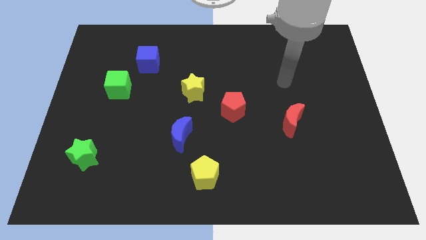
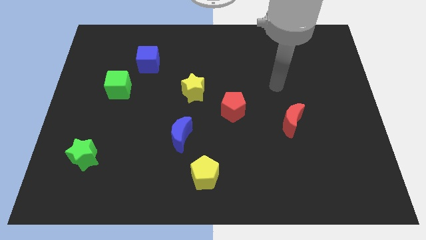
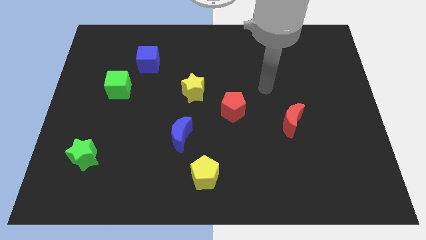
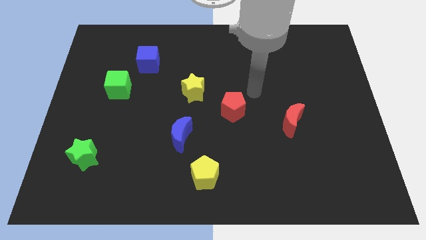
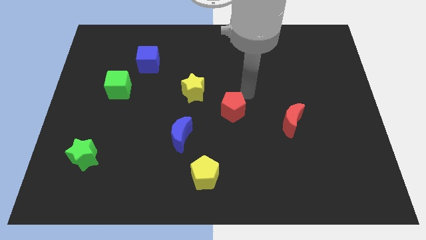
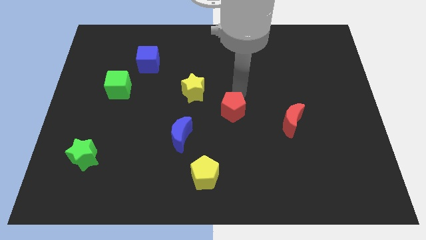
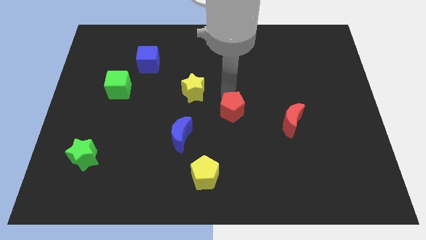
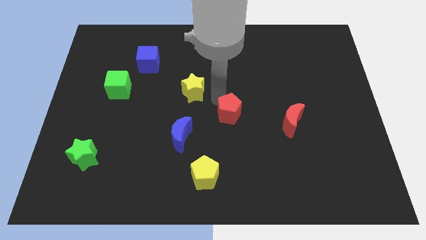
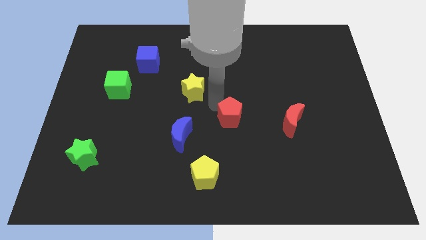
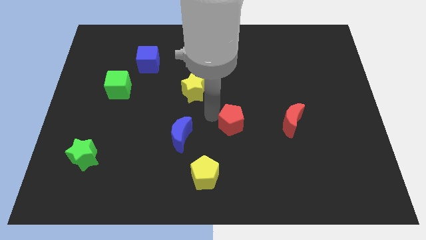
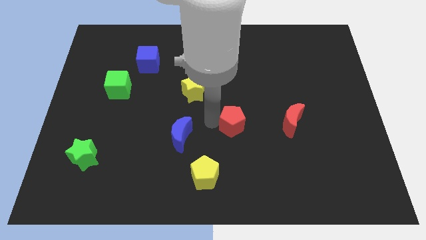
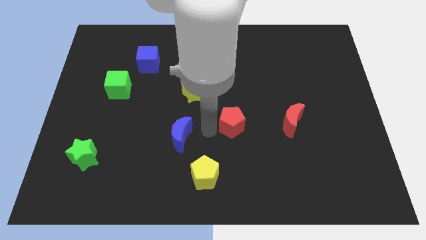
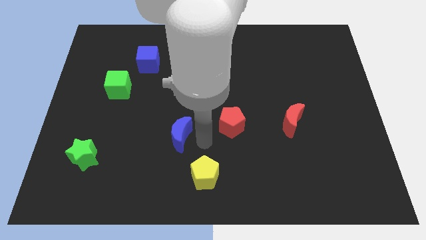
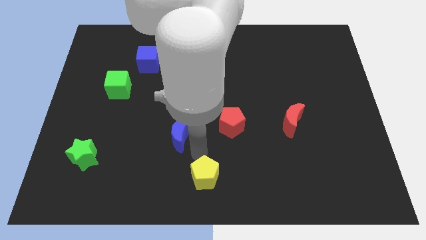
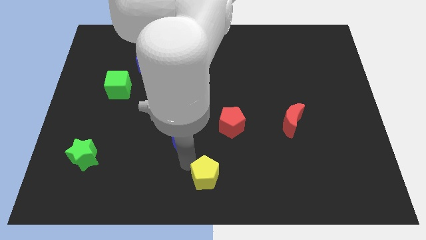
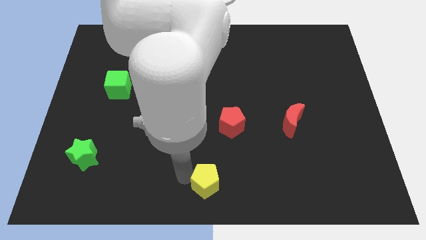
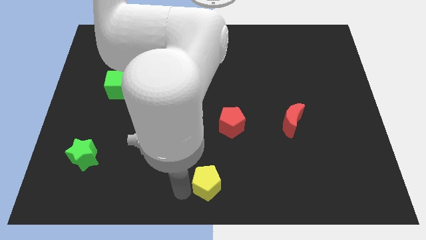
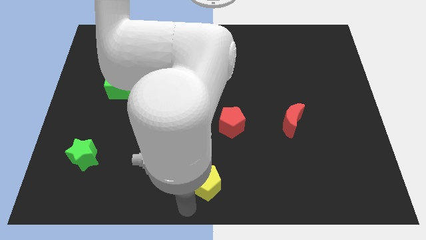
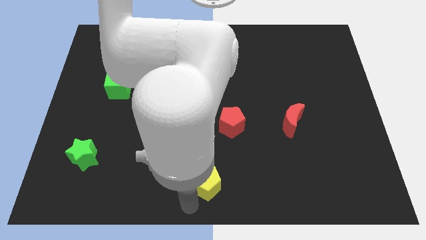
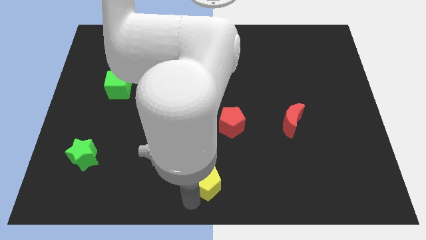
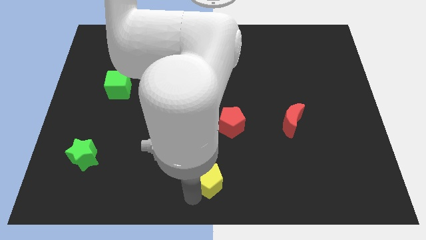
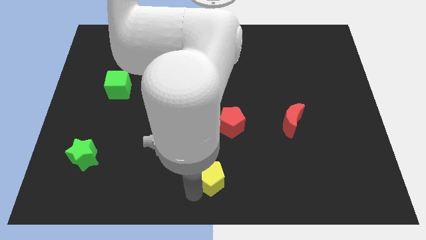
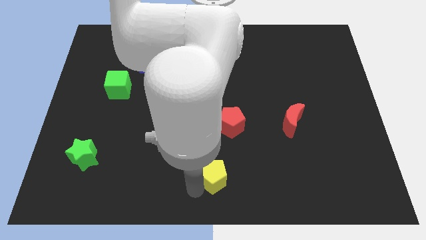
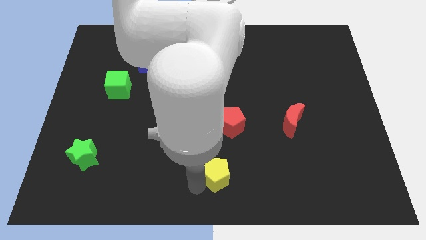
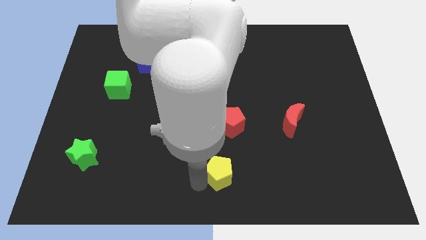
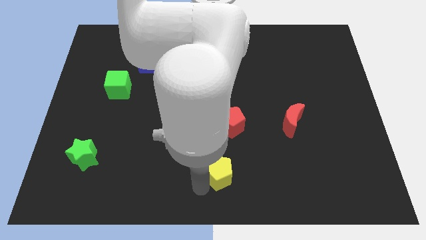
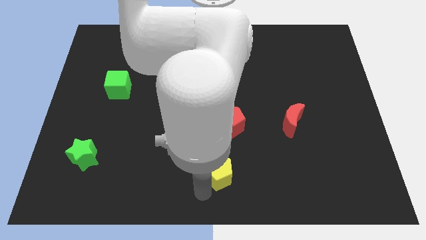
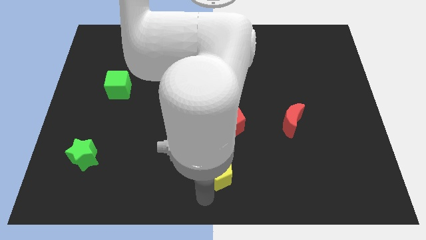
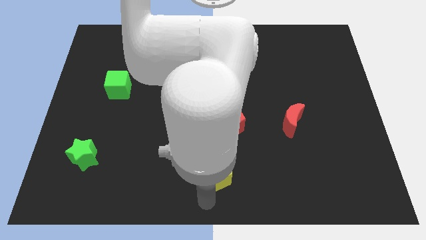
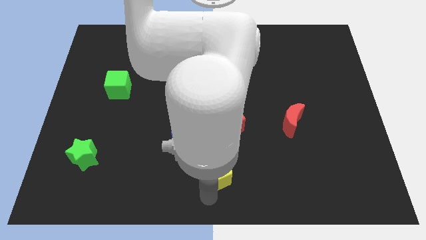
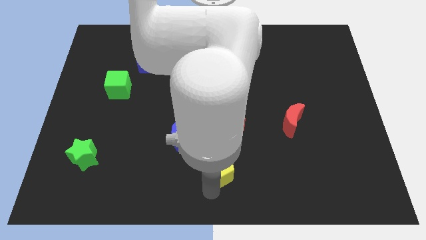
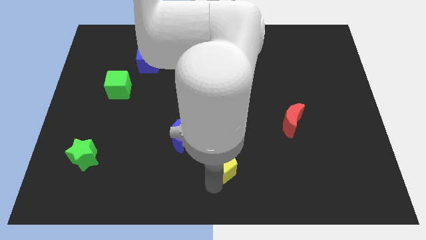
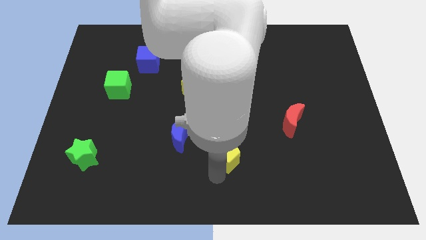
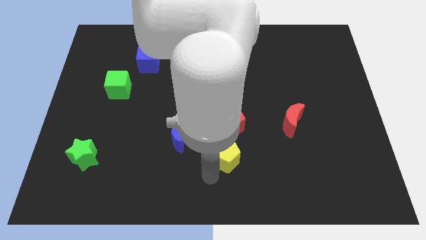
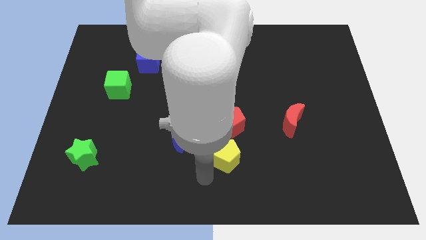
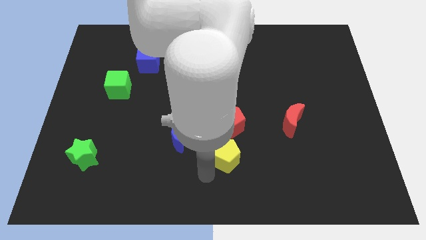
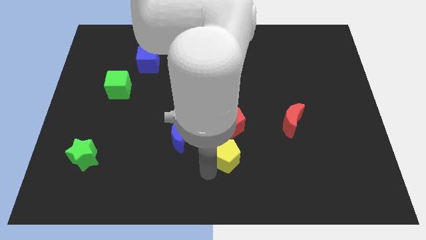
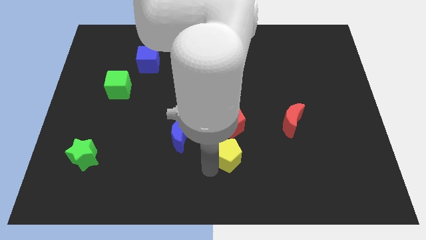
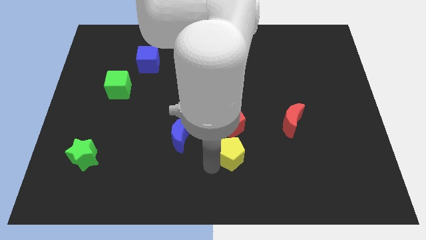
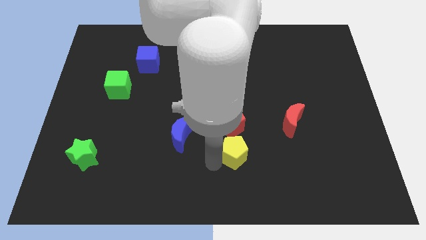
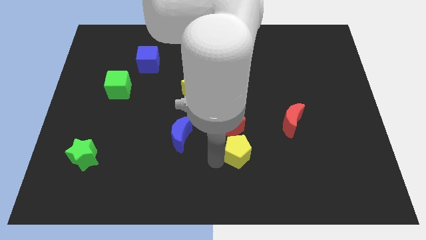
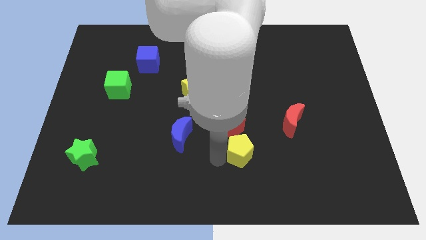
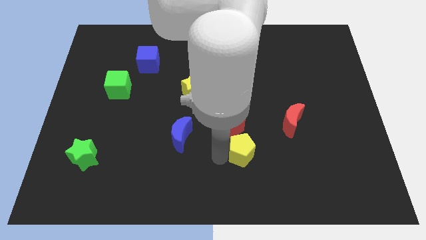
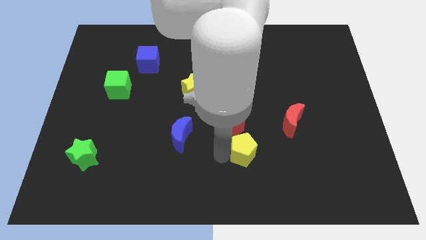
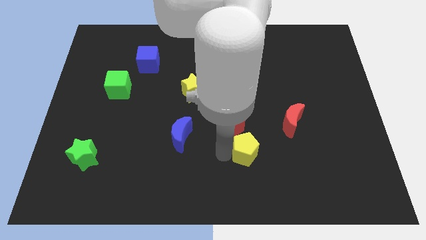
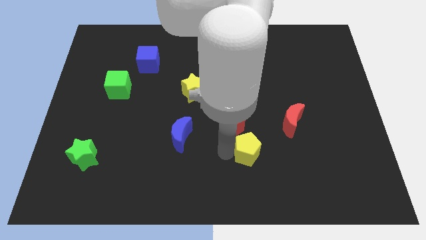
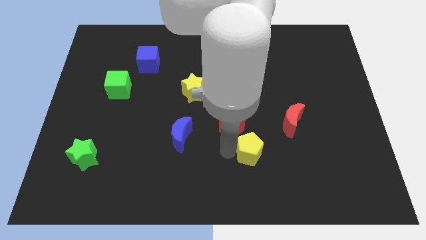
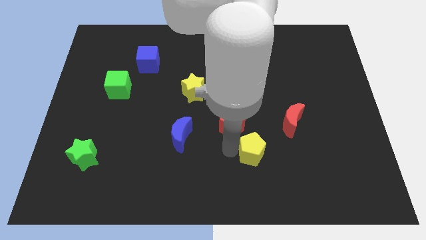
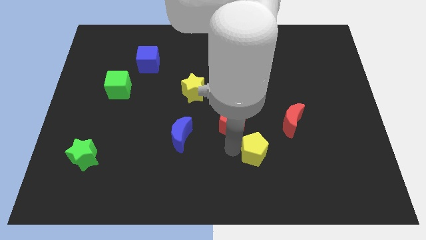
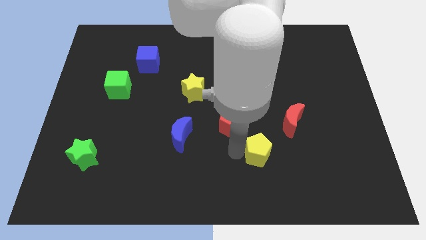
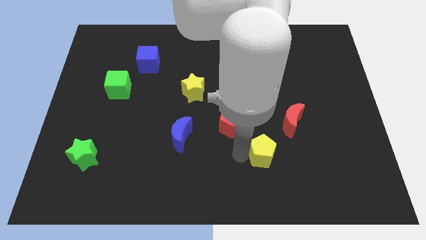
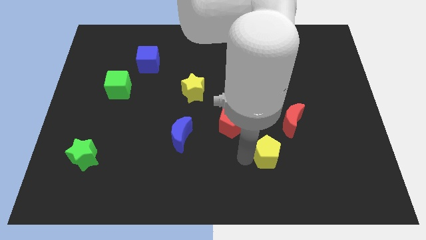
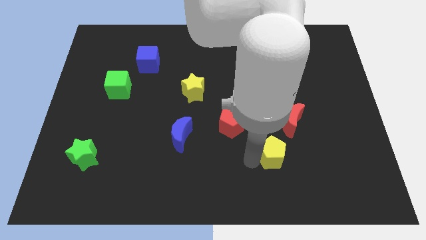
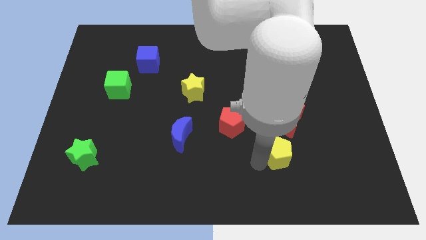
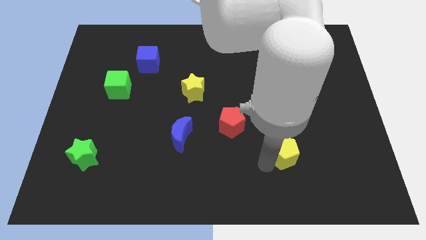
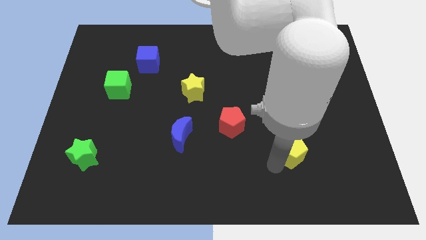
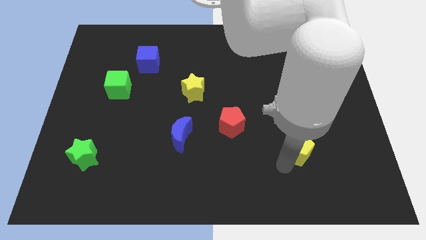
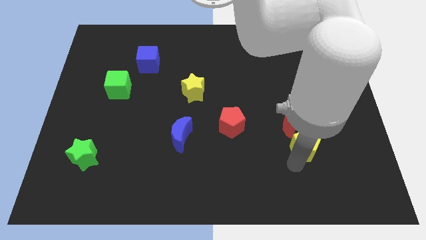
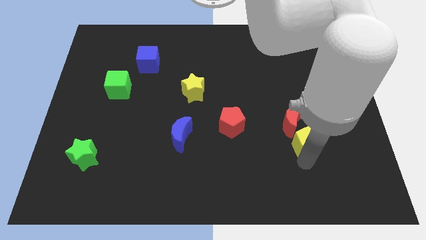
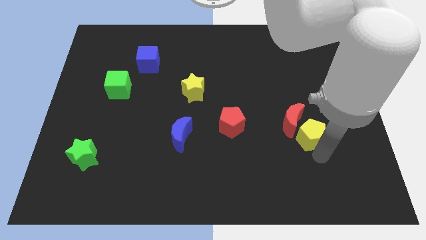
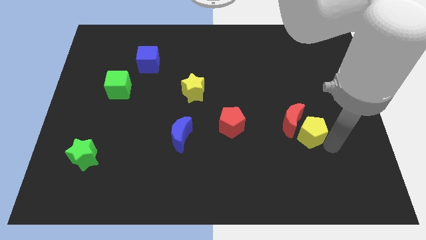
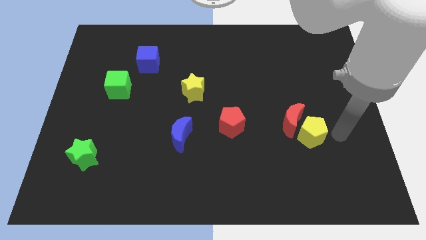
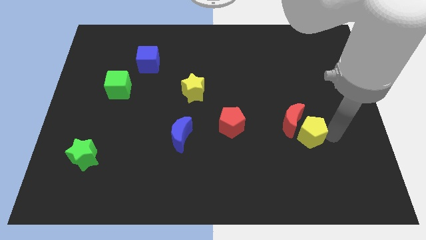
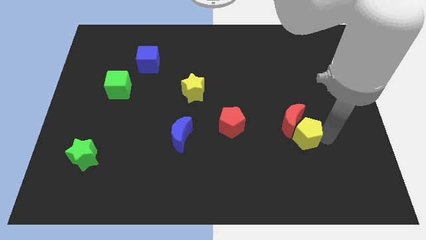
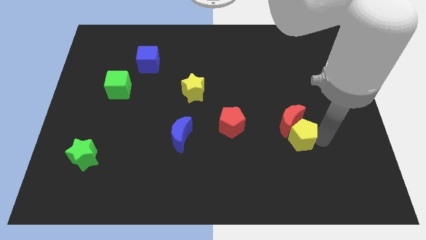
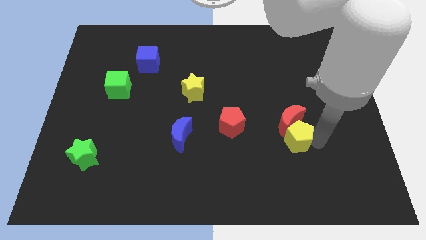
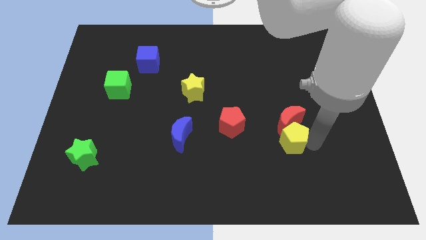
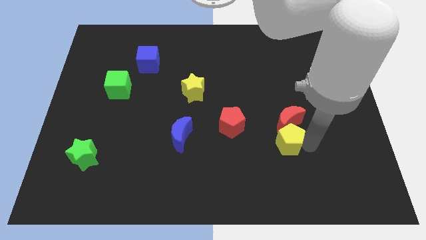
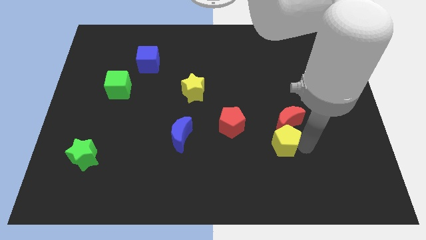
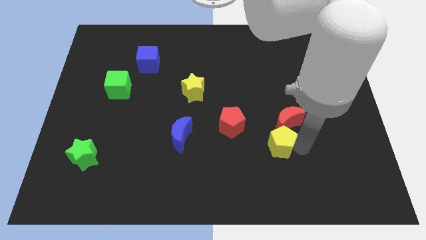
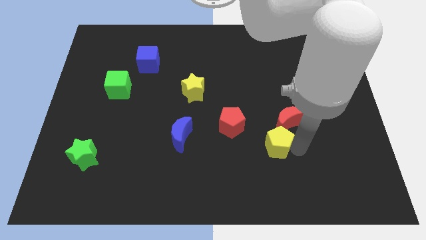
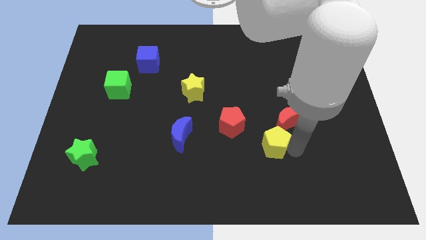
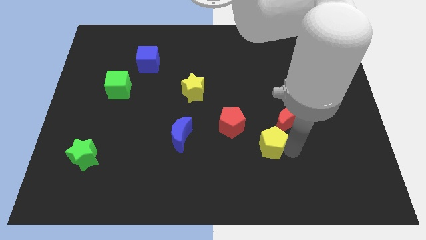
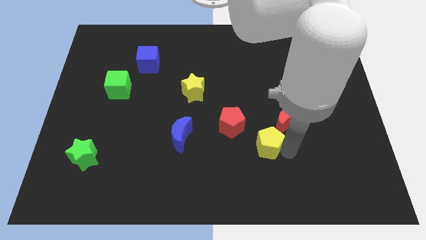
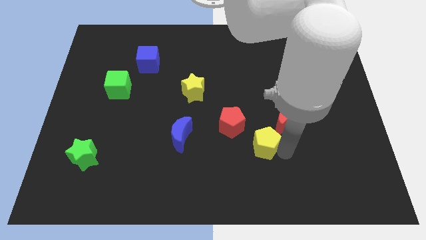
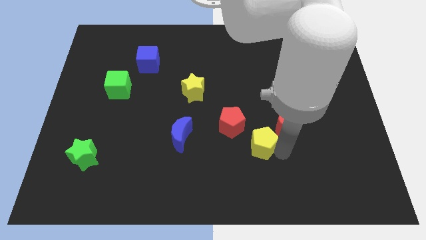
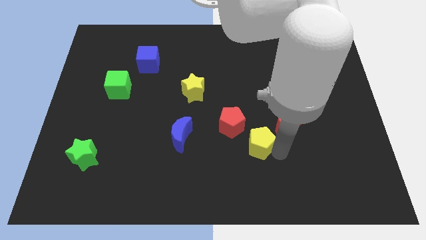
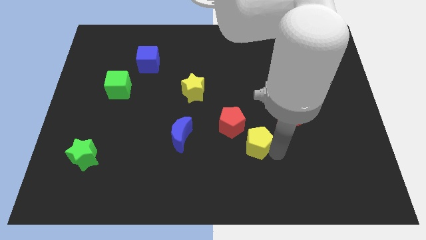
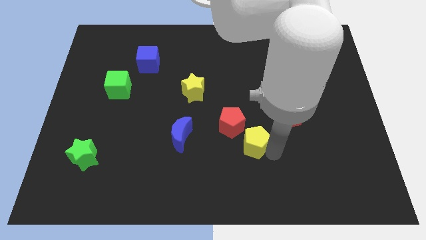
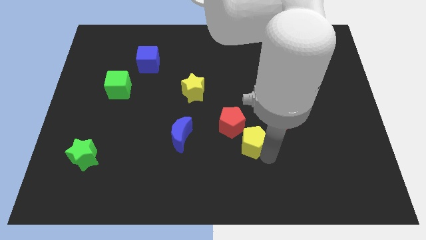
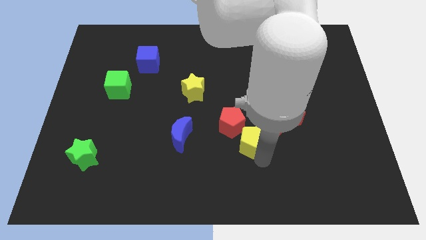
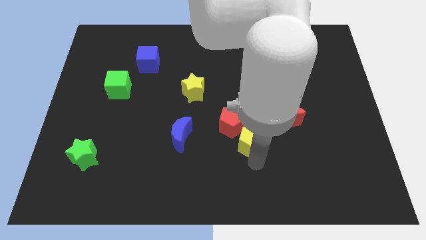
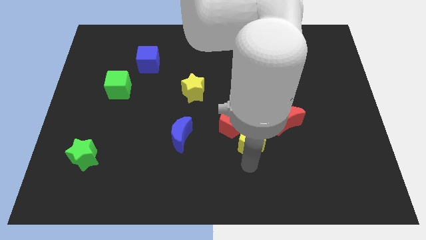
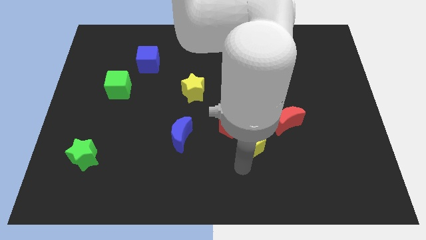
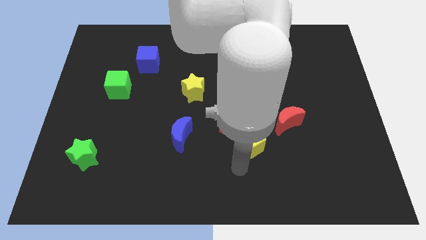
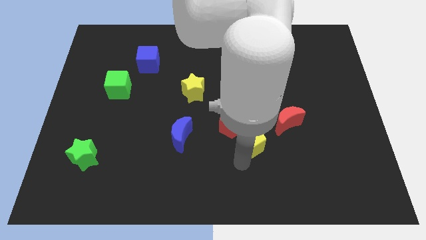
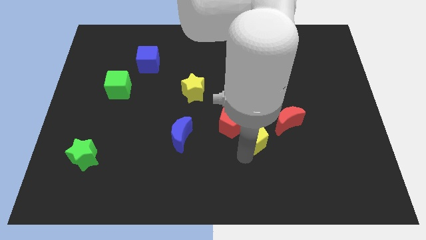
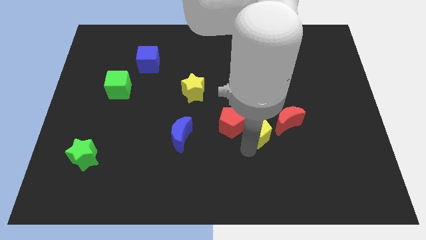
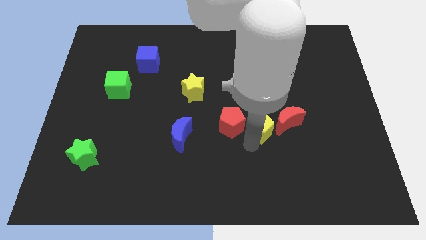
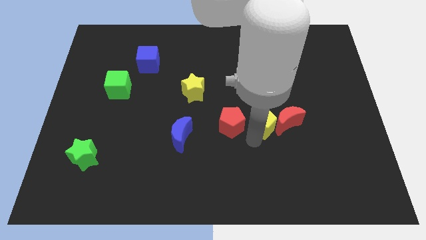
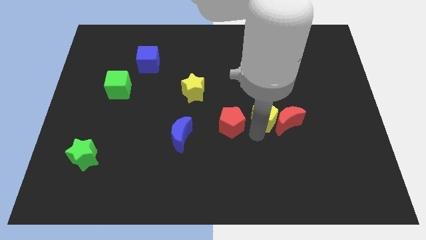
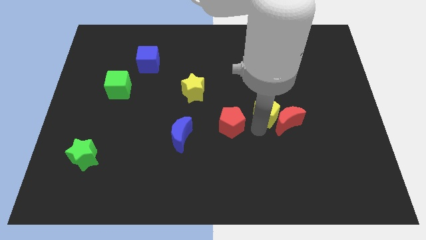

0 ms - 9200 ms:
slide the yellow pentagon diagonally up and to the right
